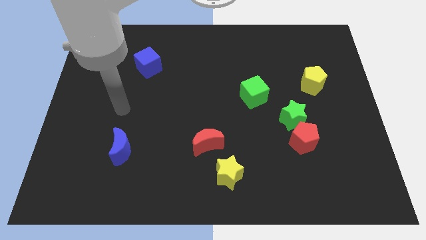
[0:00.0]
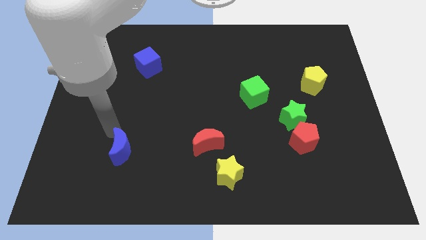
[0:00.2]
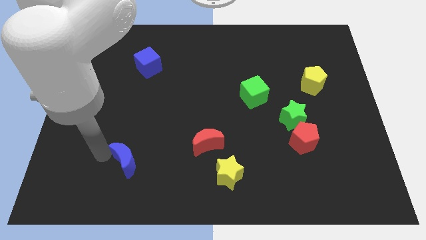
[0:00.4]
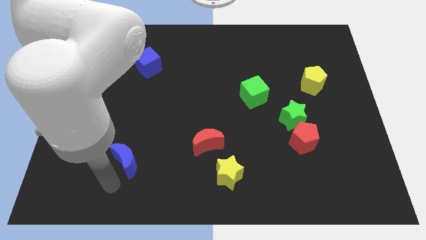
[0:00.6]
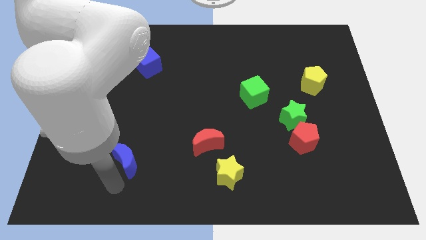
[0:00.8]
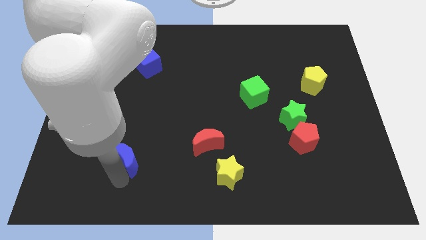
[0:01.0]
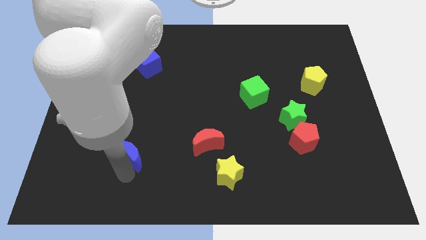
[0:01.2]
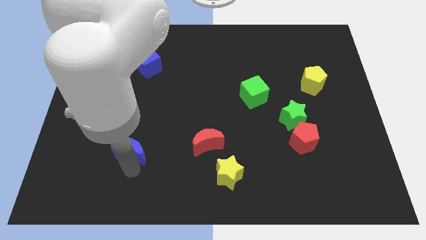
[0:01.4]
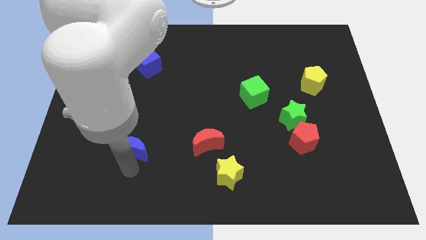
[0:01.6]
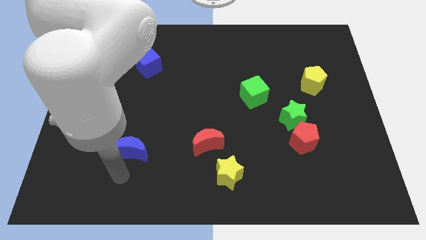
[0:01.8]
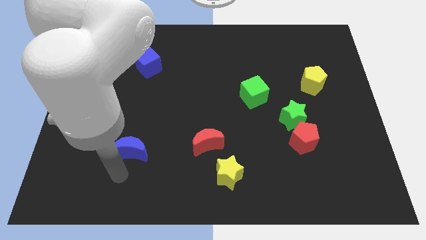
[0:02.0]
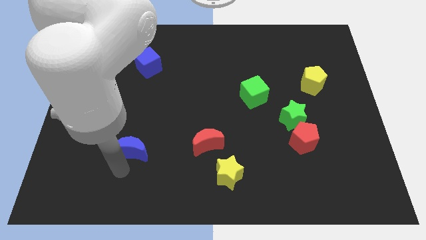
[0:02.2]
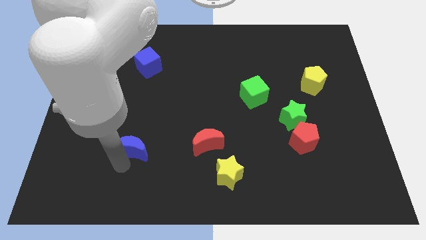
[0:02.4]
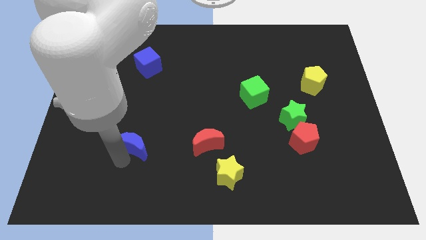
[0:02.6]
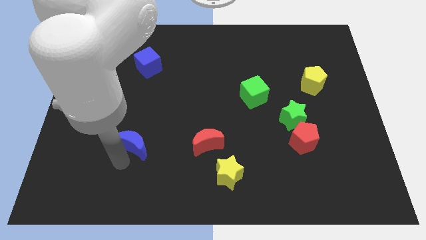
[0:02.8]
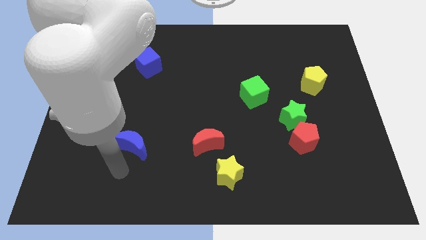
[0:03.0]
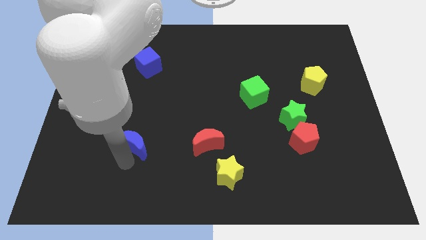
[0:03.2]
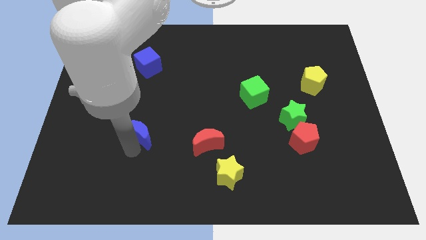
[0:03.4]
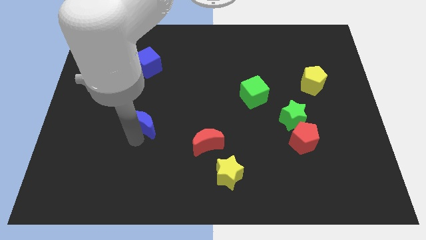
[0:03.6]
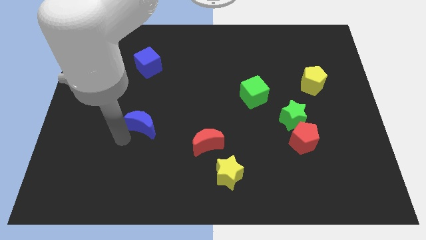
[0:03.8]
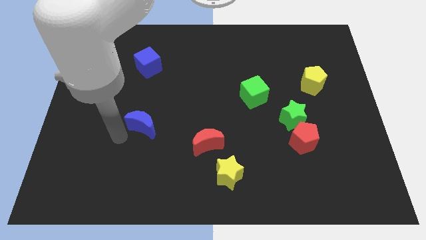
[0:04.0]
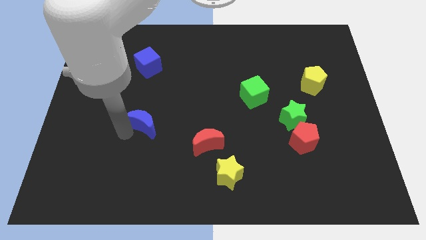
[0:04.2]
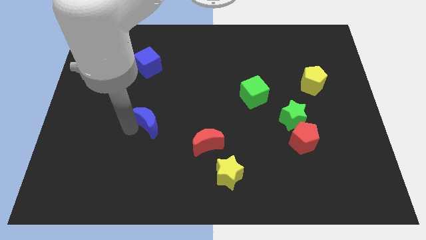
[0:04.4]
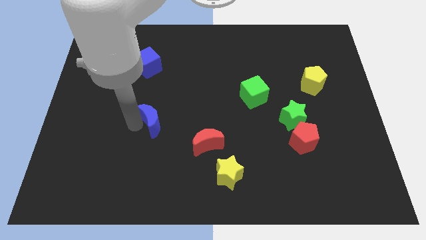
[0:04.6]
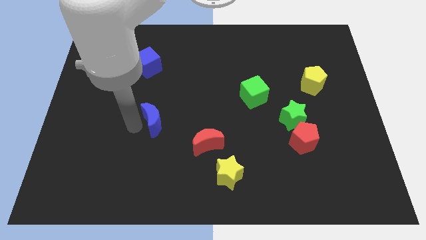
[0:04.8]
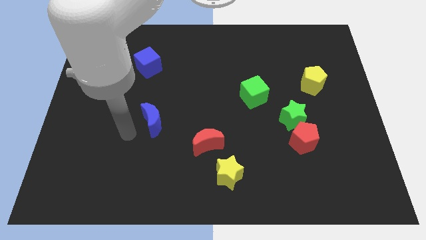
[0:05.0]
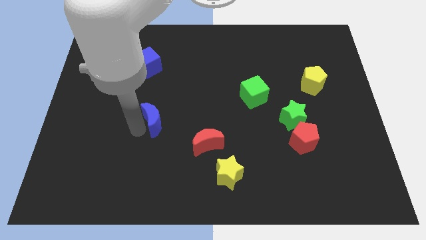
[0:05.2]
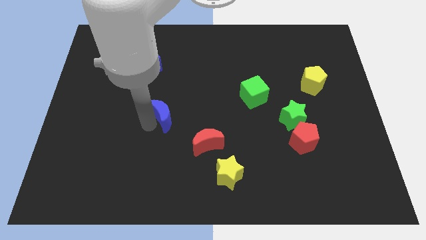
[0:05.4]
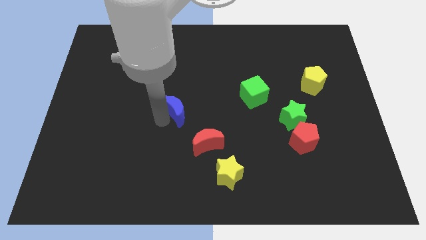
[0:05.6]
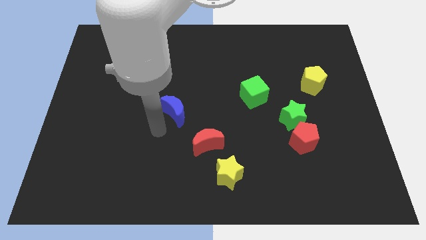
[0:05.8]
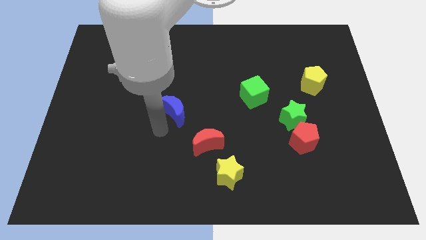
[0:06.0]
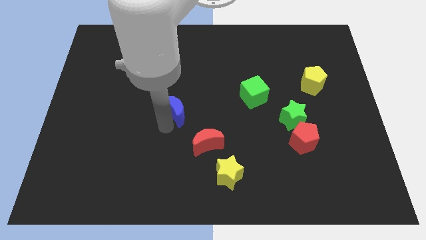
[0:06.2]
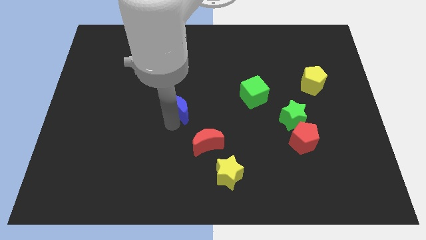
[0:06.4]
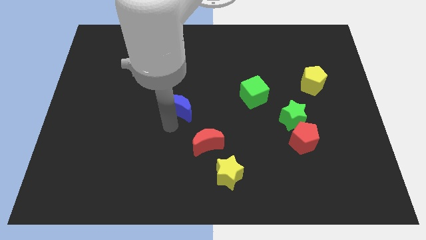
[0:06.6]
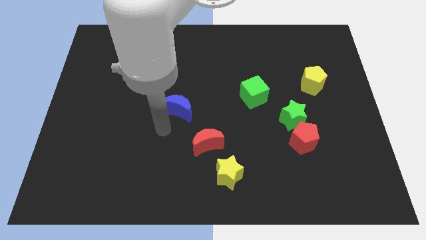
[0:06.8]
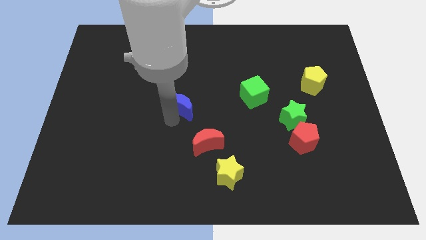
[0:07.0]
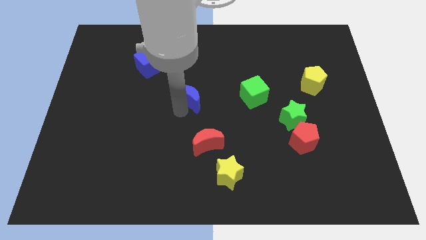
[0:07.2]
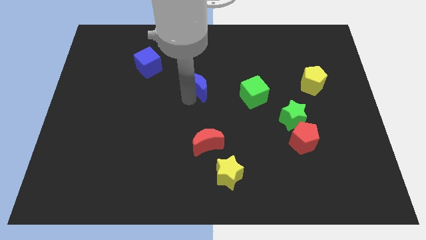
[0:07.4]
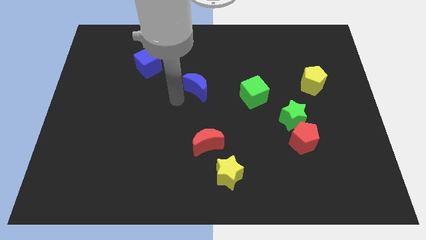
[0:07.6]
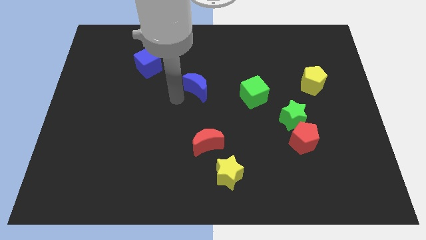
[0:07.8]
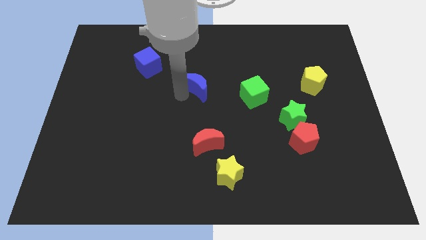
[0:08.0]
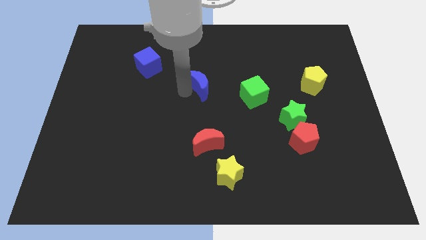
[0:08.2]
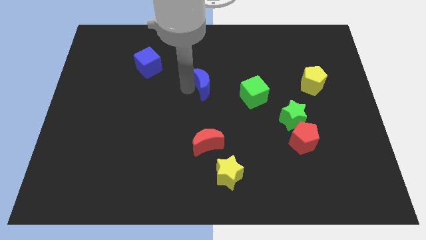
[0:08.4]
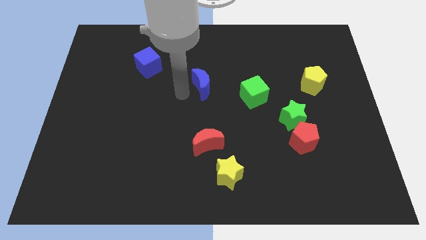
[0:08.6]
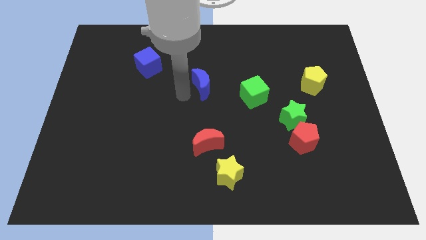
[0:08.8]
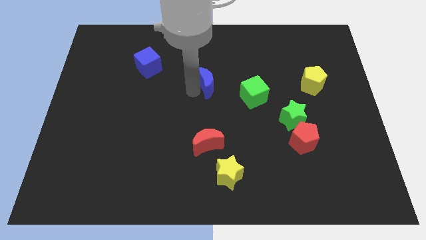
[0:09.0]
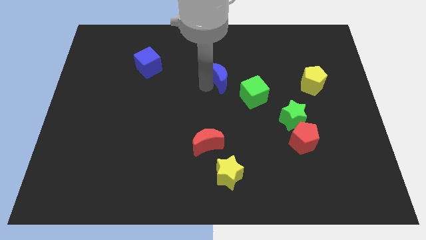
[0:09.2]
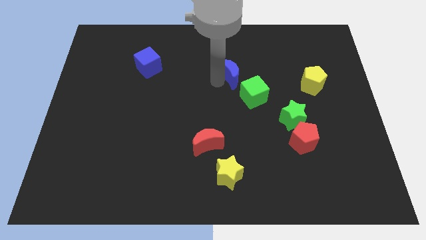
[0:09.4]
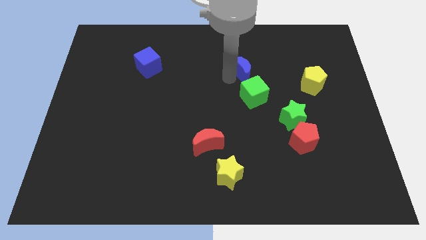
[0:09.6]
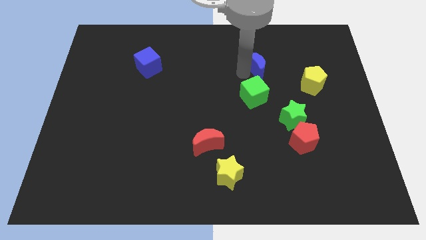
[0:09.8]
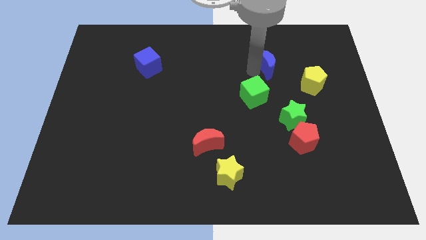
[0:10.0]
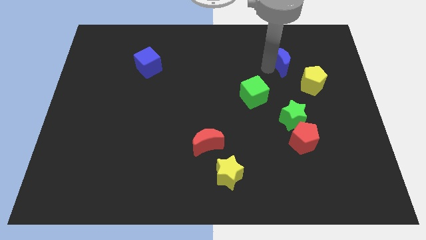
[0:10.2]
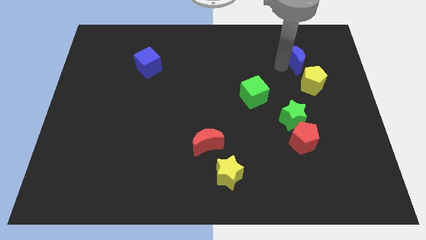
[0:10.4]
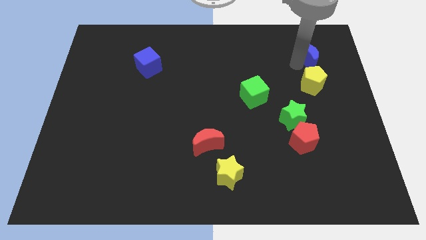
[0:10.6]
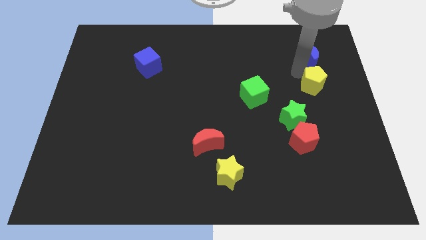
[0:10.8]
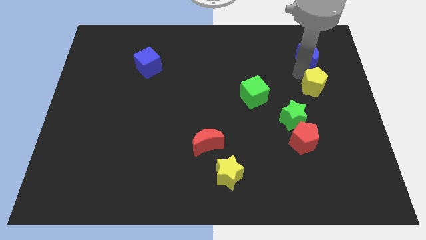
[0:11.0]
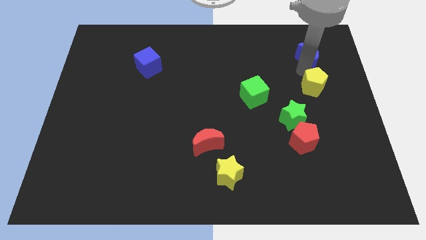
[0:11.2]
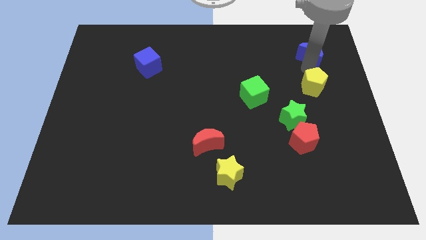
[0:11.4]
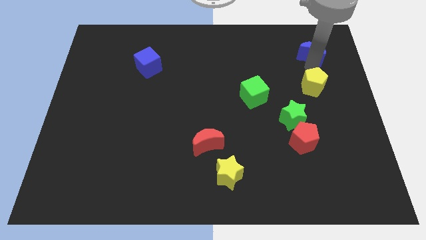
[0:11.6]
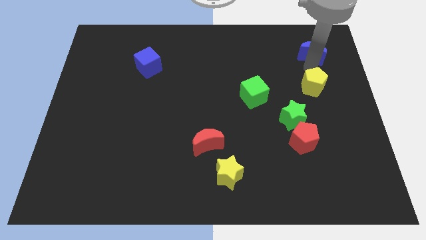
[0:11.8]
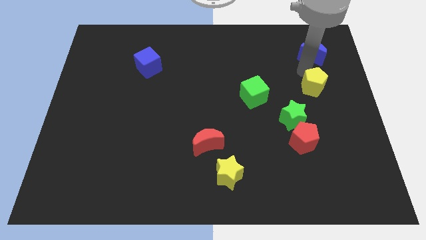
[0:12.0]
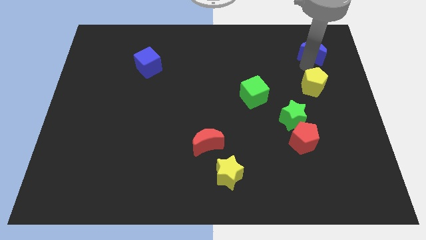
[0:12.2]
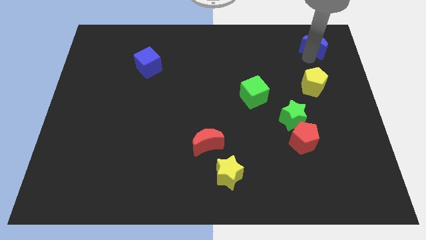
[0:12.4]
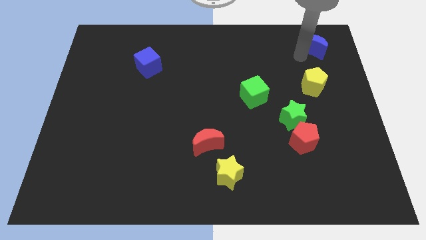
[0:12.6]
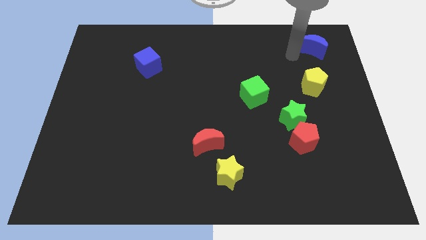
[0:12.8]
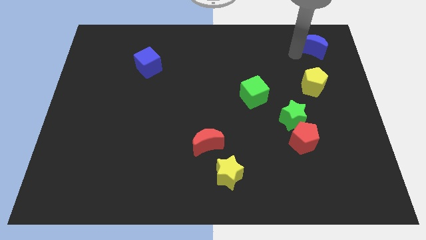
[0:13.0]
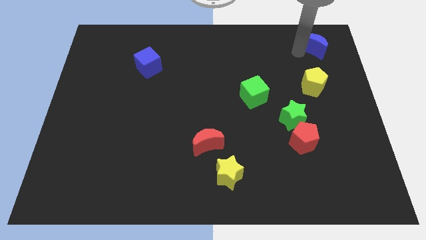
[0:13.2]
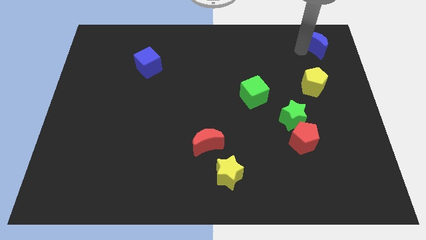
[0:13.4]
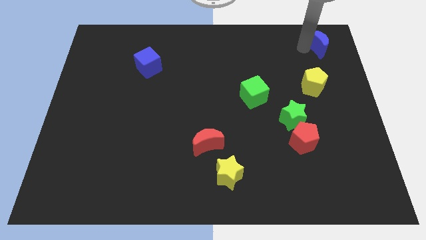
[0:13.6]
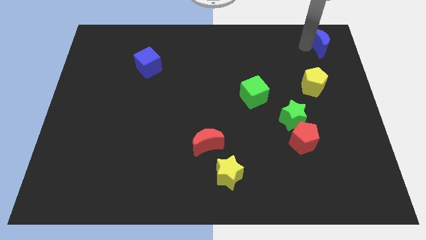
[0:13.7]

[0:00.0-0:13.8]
move the blue moon to the top right corner

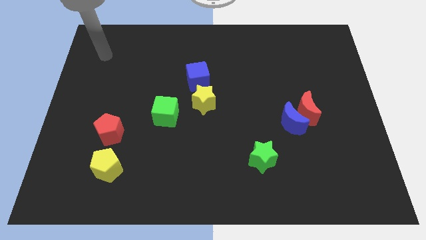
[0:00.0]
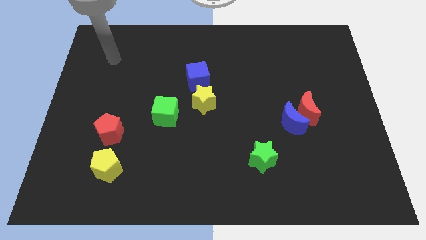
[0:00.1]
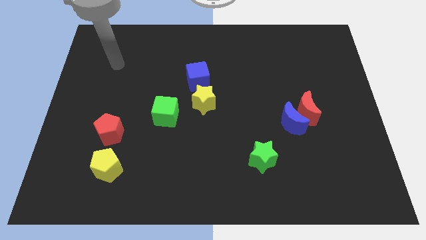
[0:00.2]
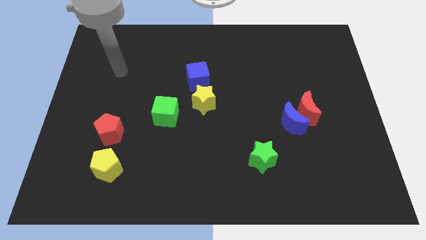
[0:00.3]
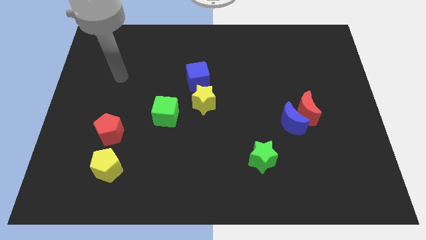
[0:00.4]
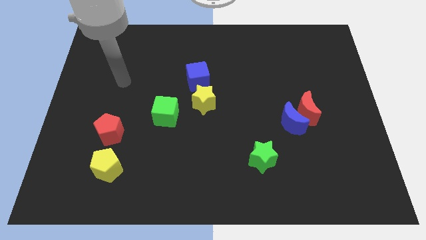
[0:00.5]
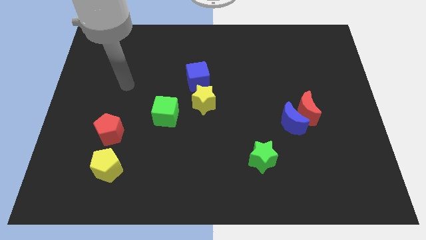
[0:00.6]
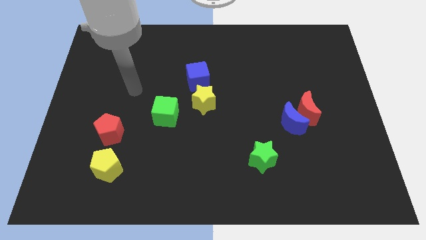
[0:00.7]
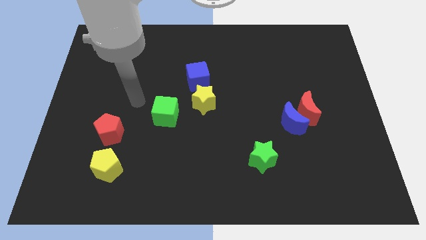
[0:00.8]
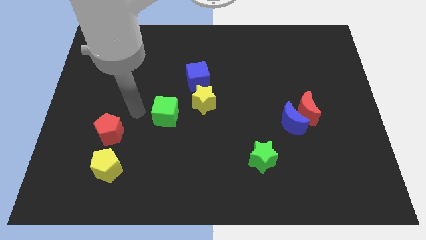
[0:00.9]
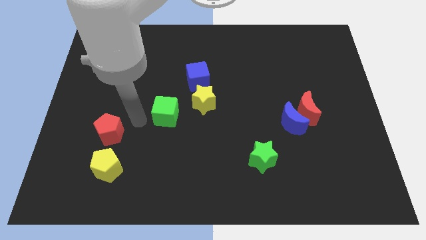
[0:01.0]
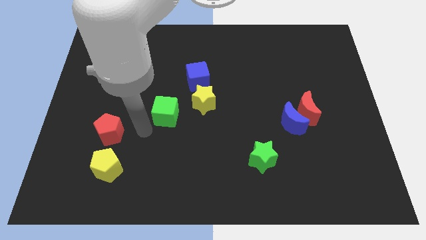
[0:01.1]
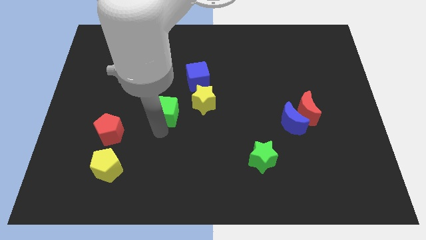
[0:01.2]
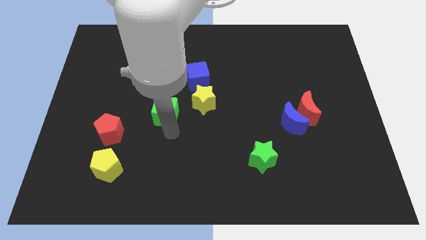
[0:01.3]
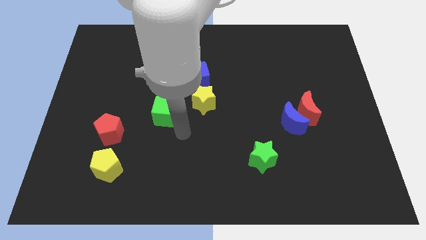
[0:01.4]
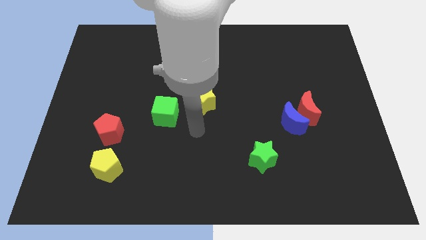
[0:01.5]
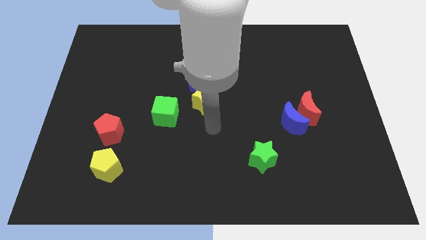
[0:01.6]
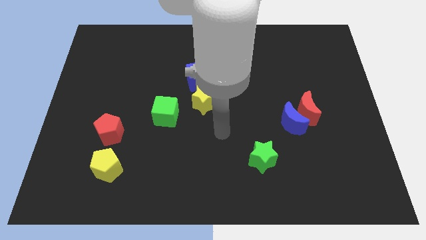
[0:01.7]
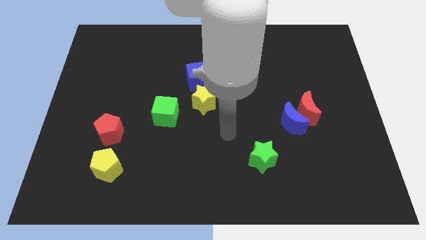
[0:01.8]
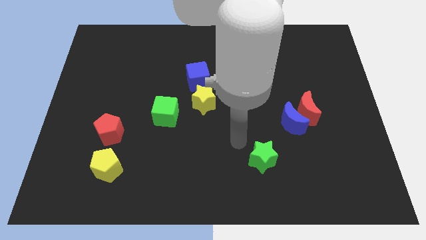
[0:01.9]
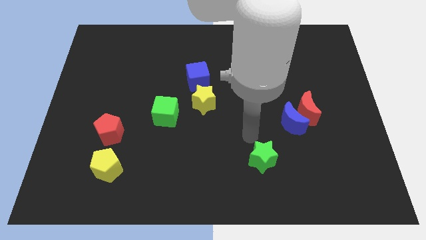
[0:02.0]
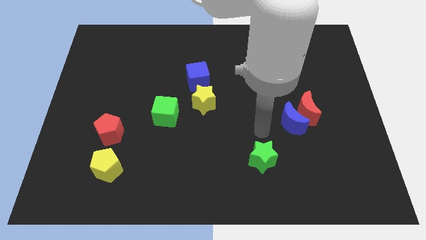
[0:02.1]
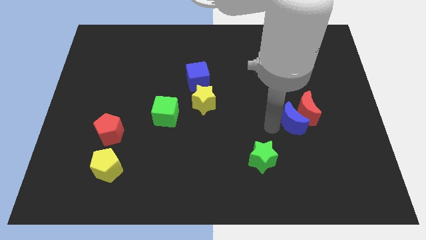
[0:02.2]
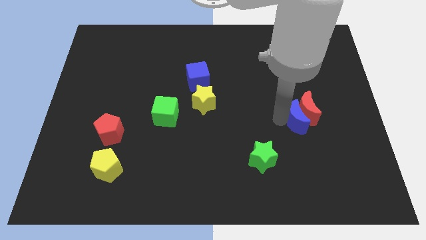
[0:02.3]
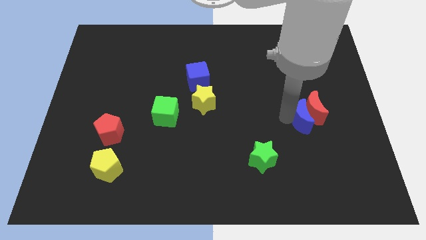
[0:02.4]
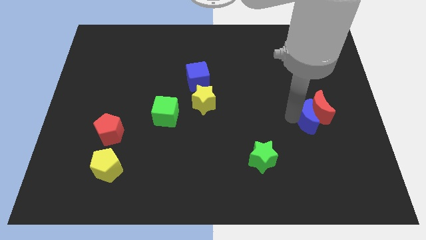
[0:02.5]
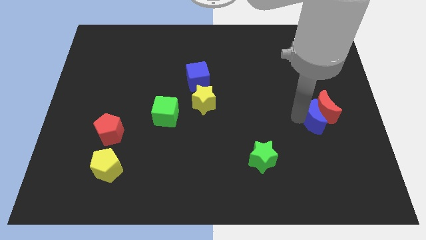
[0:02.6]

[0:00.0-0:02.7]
move the red moon to the right side
